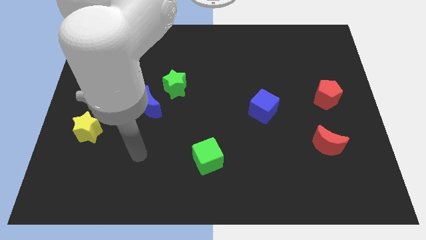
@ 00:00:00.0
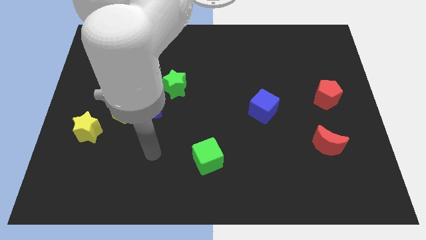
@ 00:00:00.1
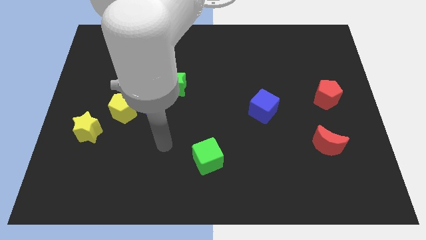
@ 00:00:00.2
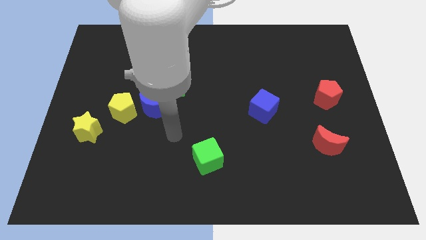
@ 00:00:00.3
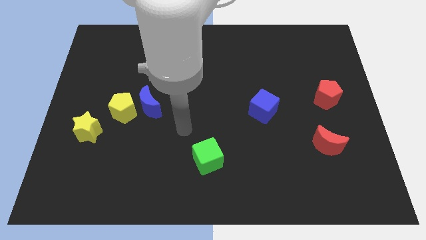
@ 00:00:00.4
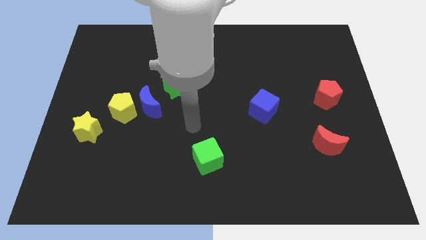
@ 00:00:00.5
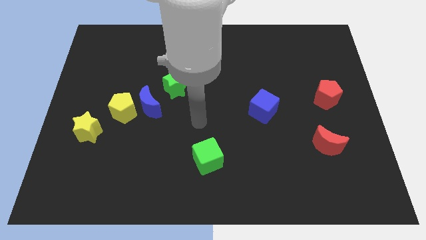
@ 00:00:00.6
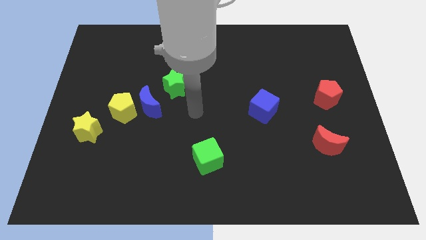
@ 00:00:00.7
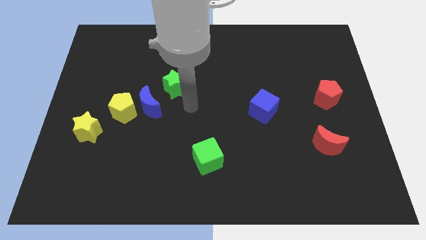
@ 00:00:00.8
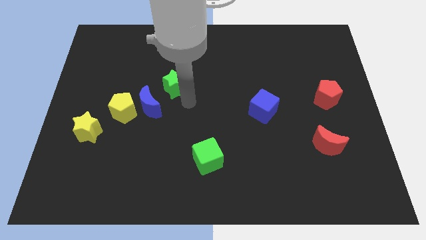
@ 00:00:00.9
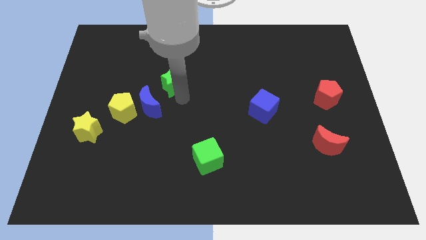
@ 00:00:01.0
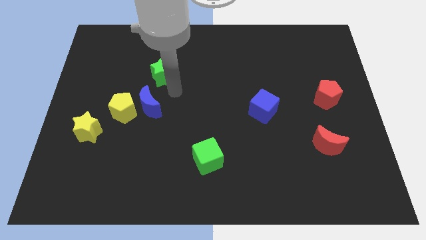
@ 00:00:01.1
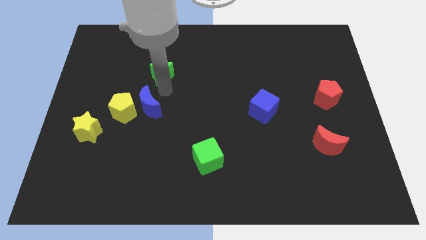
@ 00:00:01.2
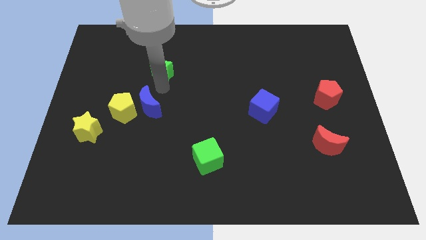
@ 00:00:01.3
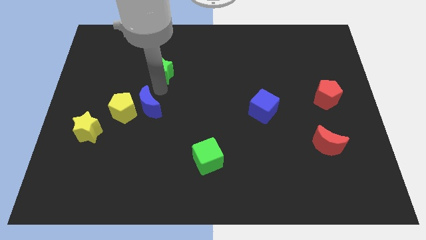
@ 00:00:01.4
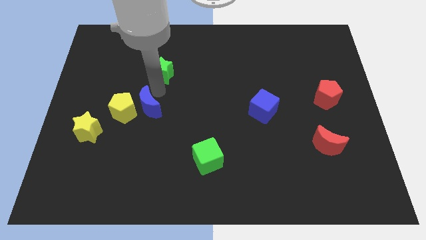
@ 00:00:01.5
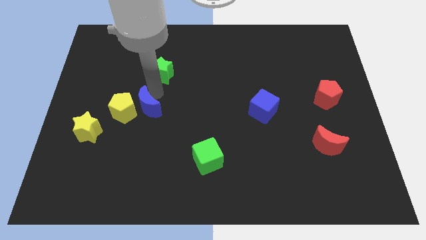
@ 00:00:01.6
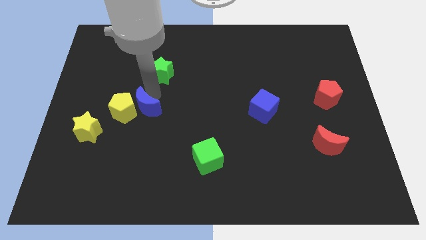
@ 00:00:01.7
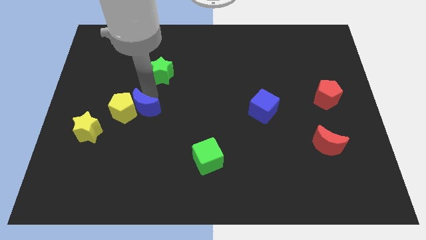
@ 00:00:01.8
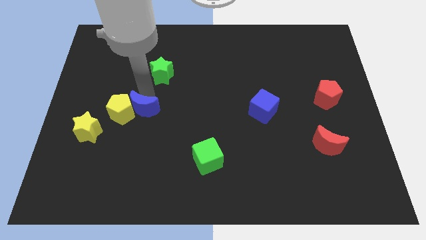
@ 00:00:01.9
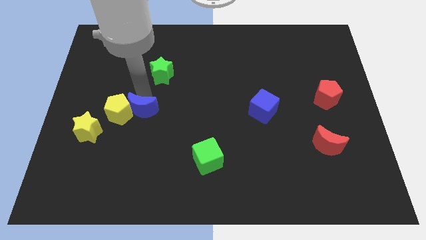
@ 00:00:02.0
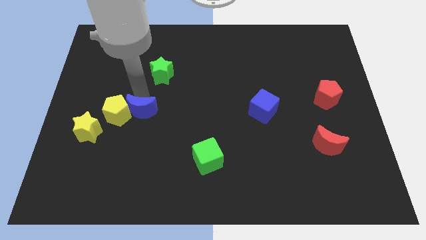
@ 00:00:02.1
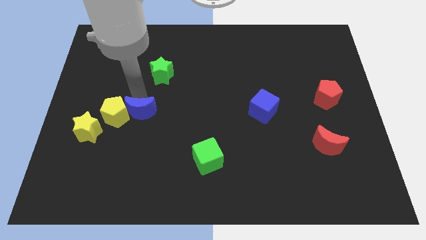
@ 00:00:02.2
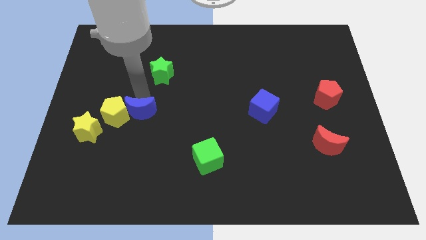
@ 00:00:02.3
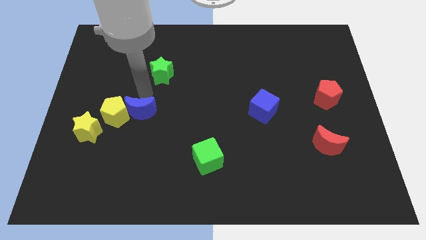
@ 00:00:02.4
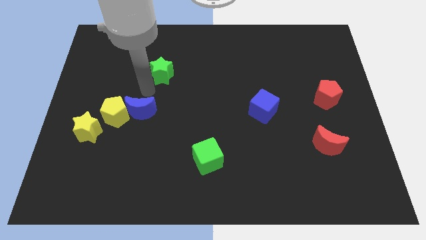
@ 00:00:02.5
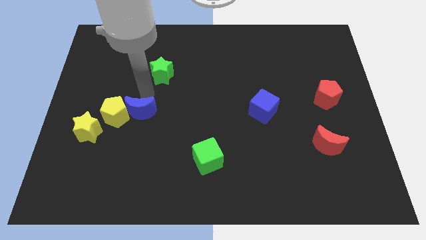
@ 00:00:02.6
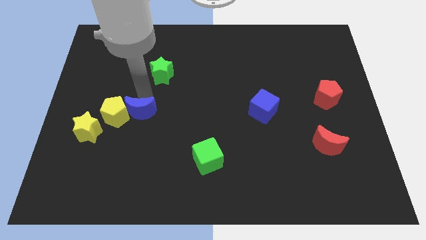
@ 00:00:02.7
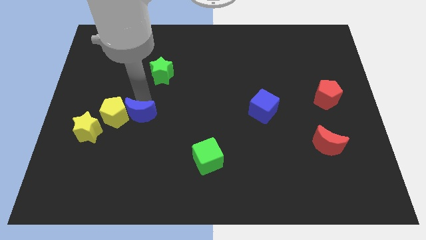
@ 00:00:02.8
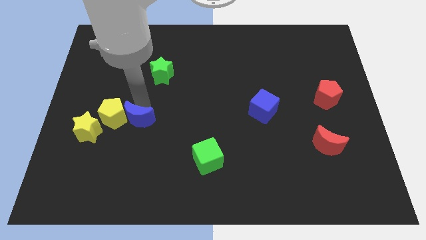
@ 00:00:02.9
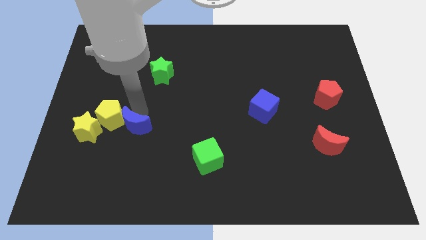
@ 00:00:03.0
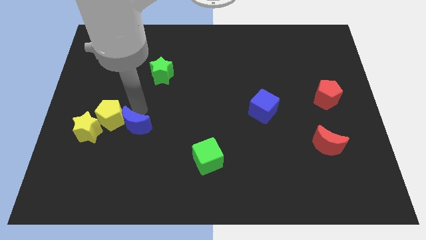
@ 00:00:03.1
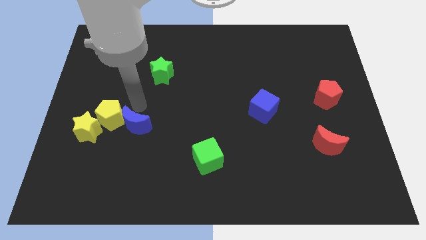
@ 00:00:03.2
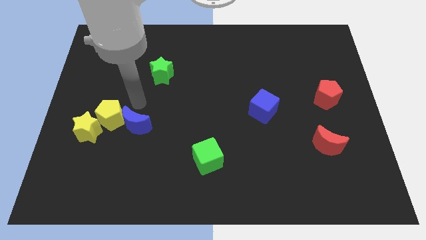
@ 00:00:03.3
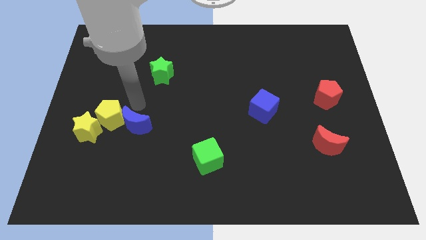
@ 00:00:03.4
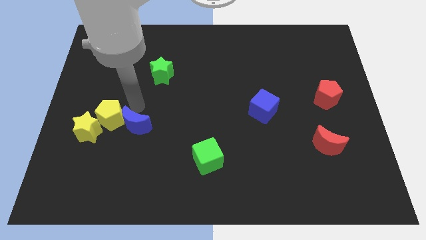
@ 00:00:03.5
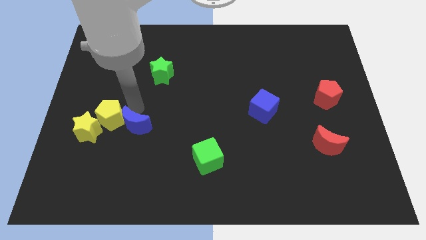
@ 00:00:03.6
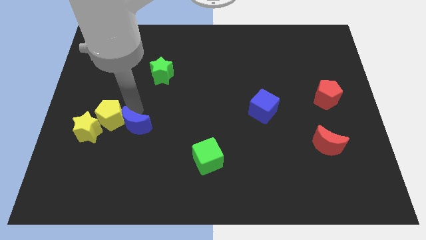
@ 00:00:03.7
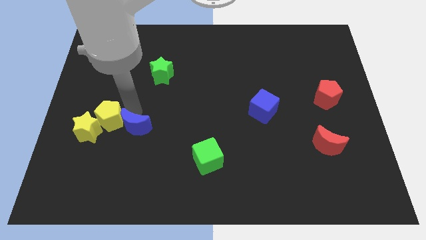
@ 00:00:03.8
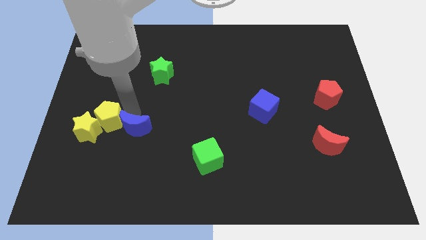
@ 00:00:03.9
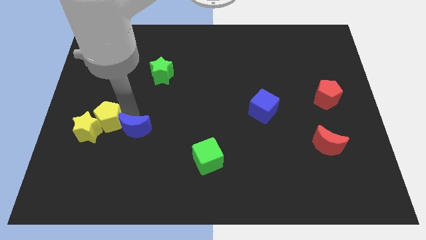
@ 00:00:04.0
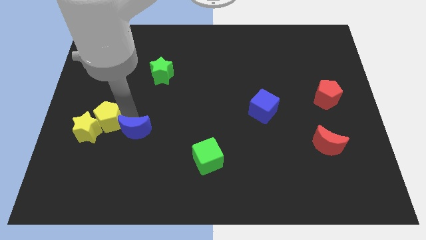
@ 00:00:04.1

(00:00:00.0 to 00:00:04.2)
pull the blue moon apart from the yellow pentagon and green star

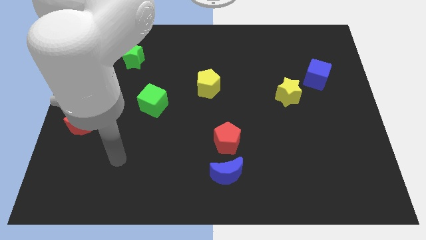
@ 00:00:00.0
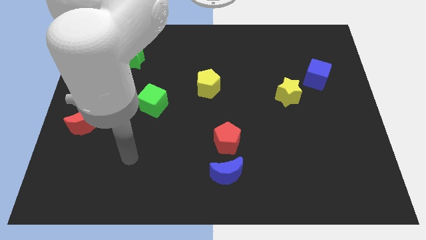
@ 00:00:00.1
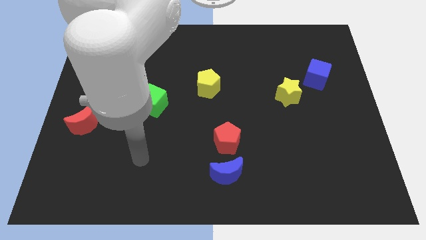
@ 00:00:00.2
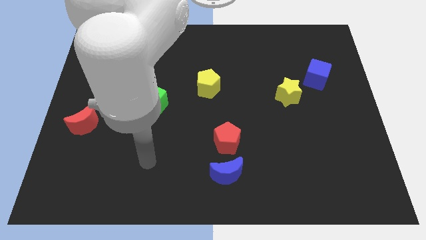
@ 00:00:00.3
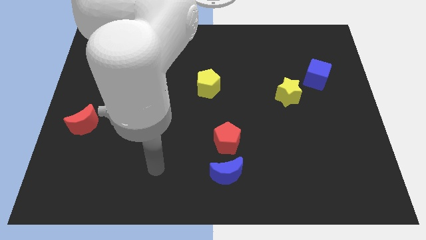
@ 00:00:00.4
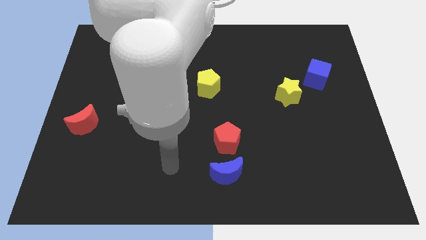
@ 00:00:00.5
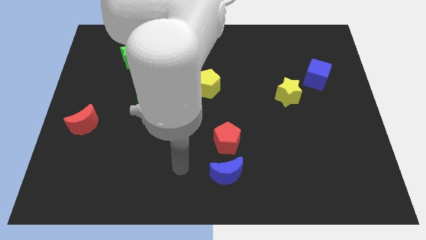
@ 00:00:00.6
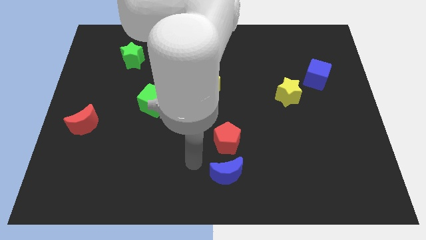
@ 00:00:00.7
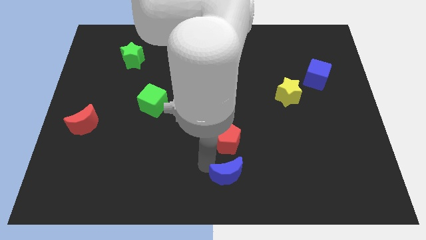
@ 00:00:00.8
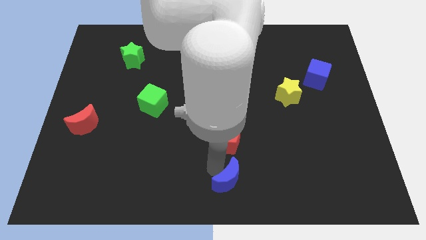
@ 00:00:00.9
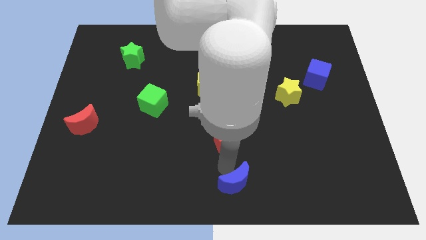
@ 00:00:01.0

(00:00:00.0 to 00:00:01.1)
move the red pentagon away from the blue moon

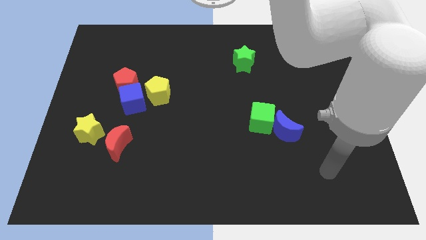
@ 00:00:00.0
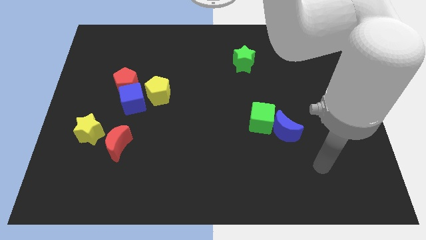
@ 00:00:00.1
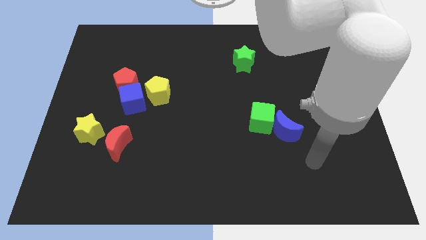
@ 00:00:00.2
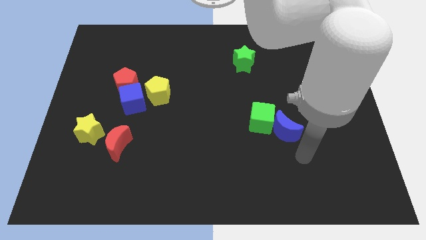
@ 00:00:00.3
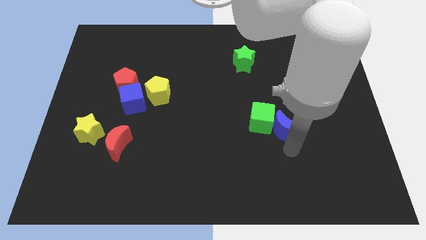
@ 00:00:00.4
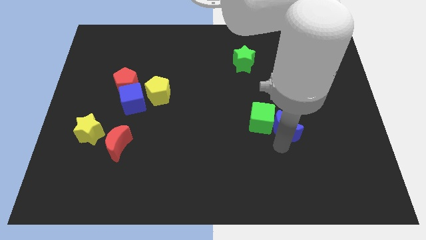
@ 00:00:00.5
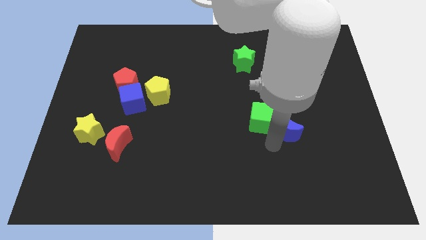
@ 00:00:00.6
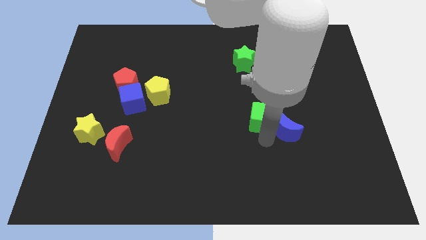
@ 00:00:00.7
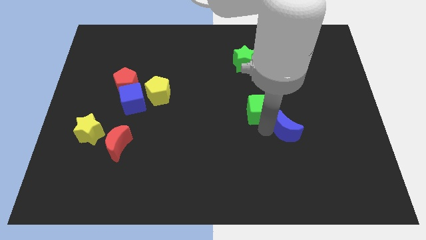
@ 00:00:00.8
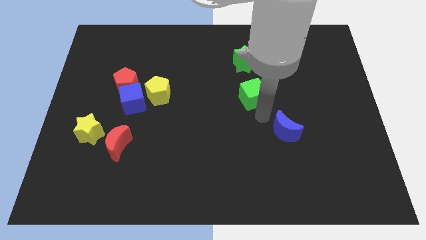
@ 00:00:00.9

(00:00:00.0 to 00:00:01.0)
pull the blue moon apart from the green cube

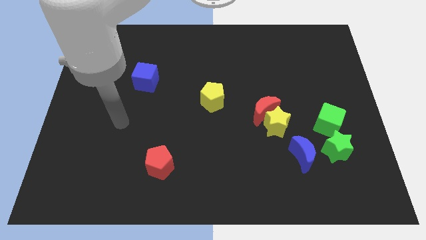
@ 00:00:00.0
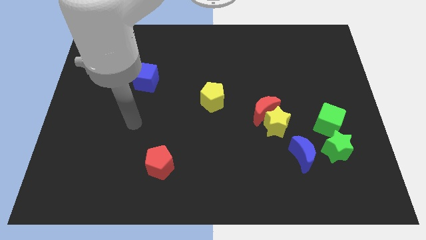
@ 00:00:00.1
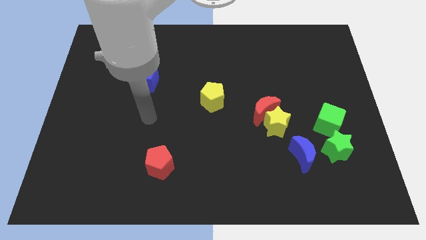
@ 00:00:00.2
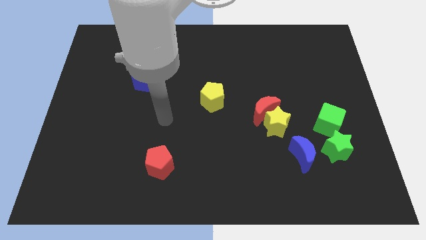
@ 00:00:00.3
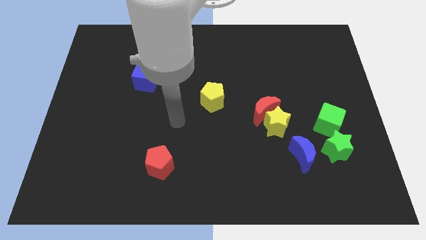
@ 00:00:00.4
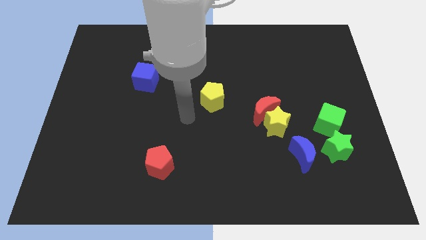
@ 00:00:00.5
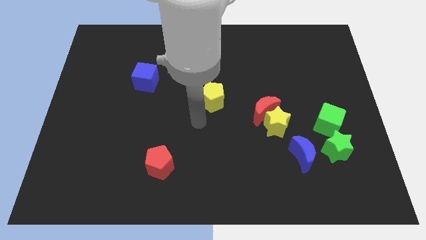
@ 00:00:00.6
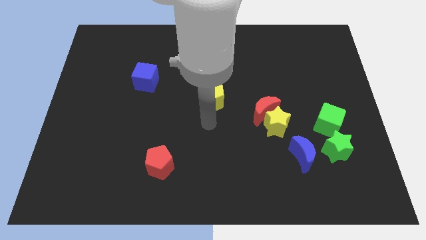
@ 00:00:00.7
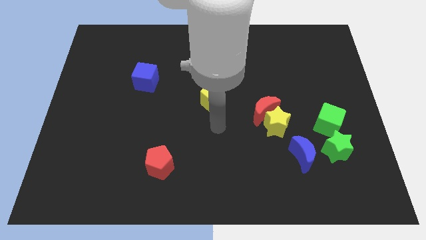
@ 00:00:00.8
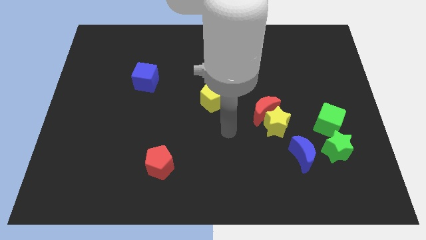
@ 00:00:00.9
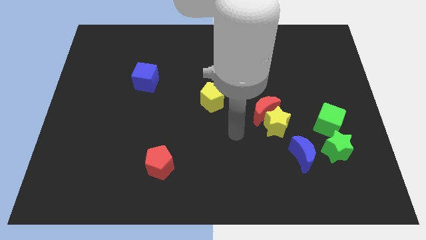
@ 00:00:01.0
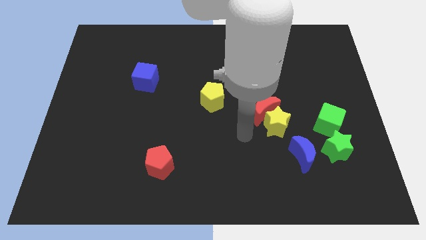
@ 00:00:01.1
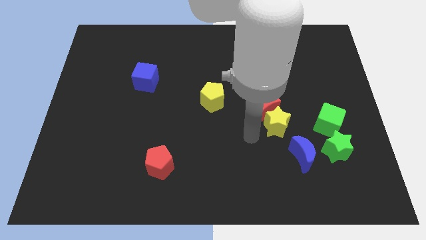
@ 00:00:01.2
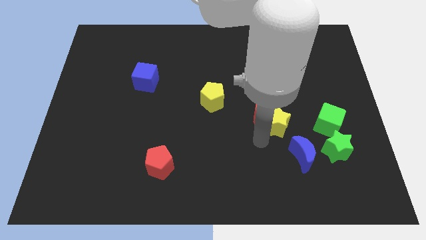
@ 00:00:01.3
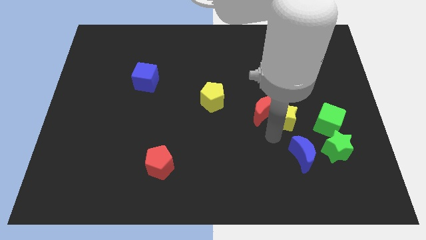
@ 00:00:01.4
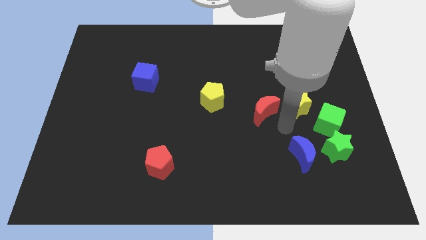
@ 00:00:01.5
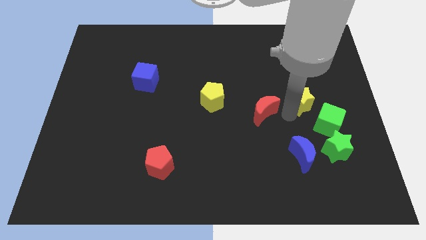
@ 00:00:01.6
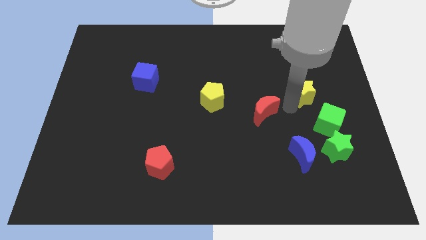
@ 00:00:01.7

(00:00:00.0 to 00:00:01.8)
move the red moon away from the yellow star

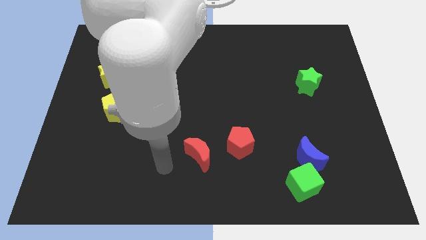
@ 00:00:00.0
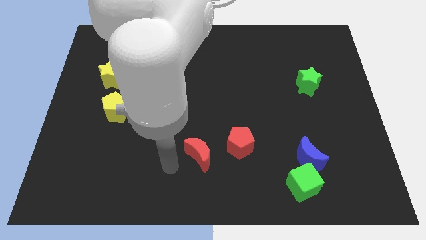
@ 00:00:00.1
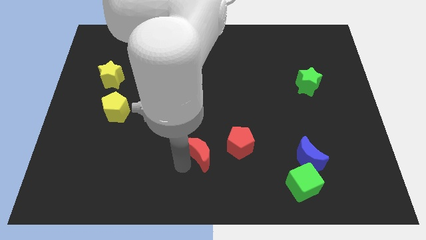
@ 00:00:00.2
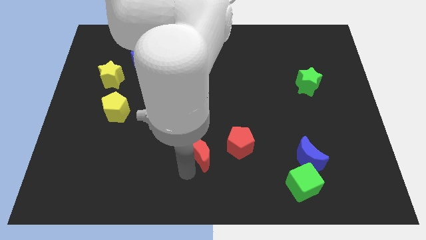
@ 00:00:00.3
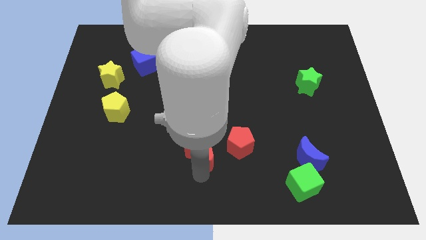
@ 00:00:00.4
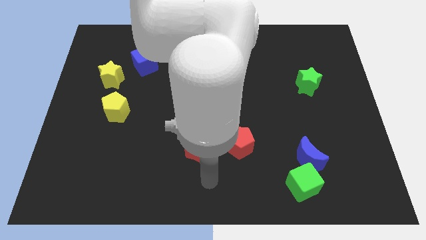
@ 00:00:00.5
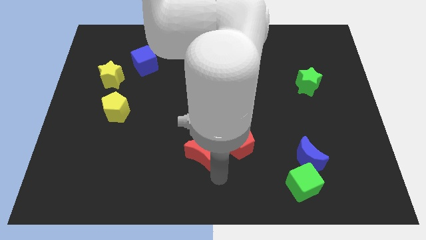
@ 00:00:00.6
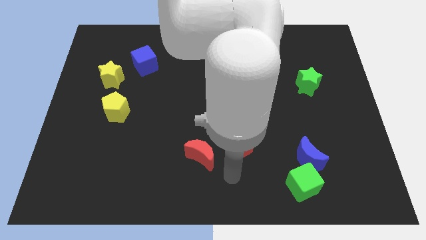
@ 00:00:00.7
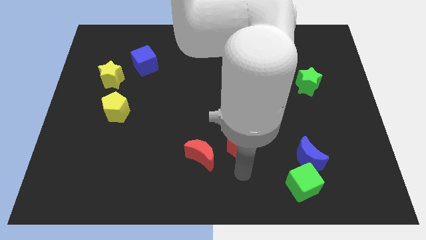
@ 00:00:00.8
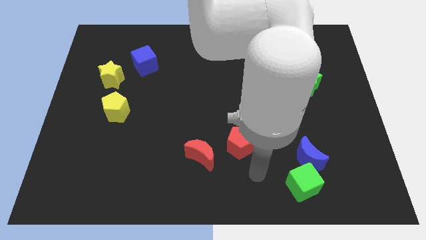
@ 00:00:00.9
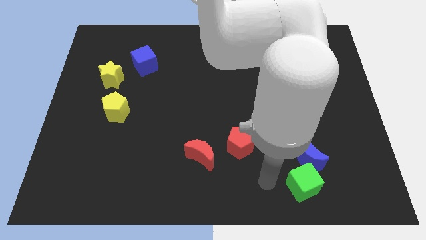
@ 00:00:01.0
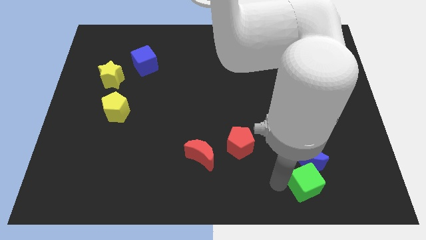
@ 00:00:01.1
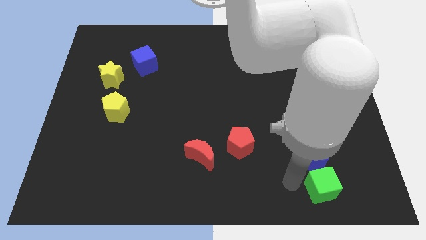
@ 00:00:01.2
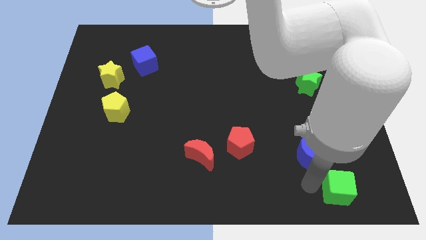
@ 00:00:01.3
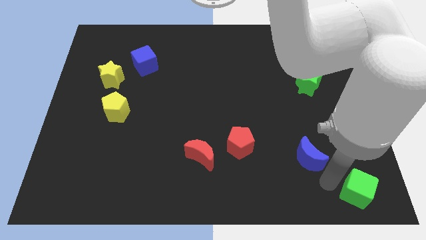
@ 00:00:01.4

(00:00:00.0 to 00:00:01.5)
separate the blue moon from the green cube
